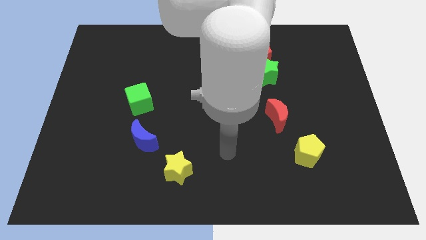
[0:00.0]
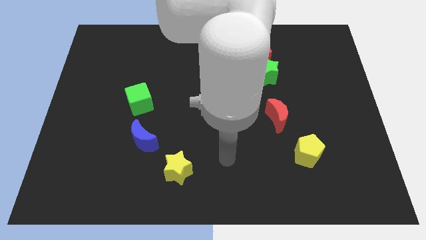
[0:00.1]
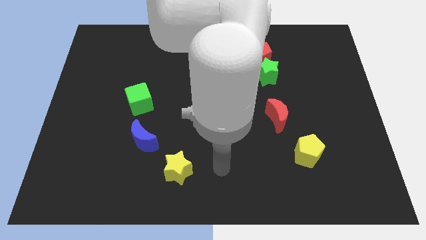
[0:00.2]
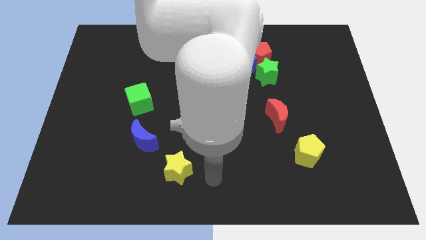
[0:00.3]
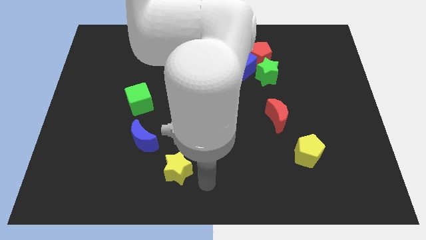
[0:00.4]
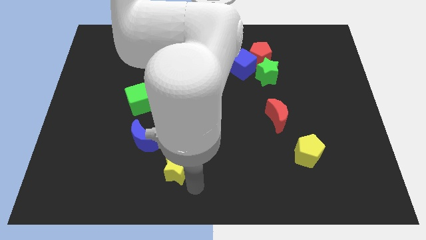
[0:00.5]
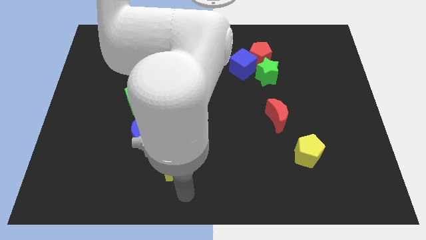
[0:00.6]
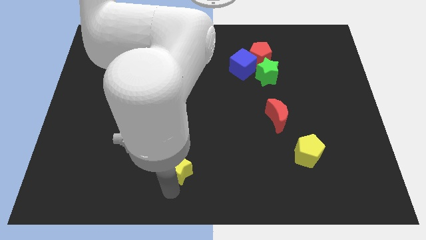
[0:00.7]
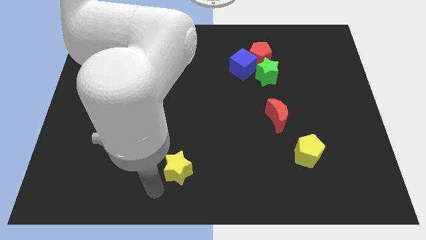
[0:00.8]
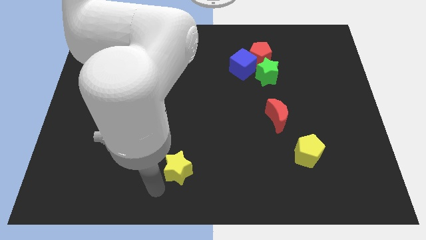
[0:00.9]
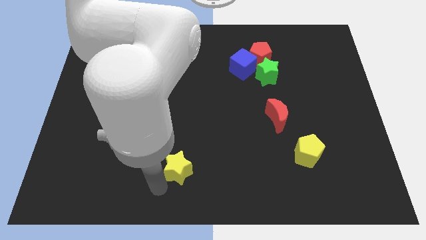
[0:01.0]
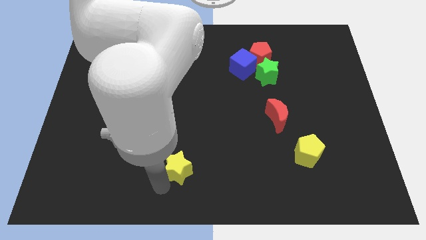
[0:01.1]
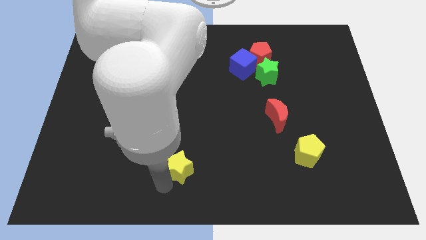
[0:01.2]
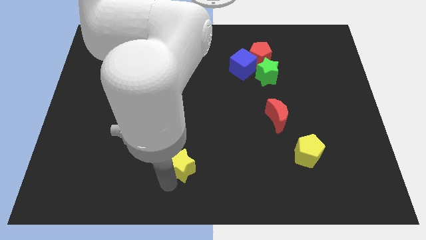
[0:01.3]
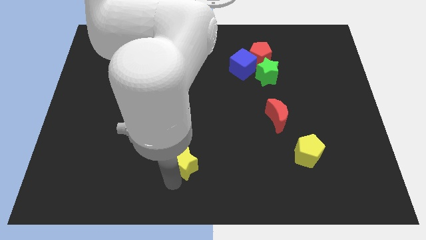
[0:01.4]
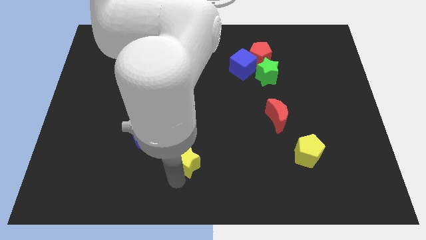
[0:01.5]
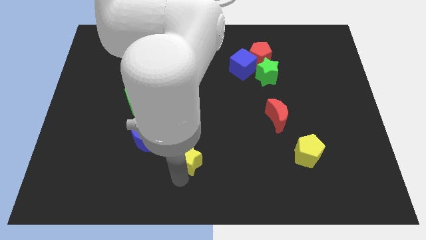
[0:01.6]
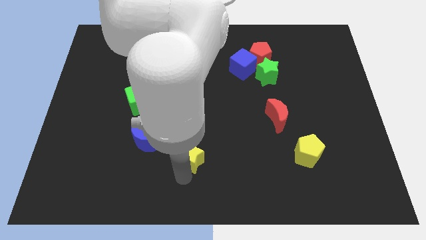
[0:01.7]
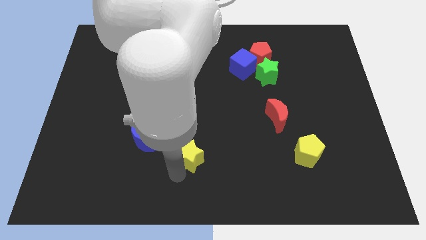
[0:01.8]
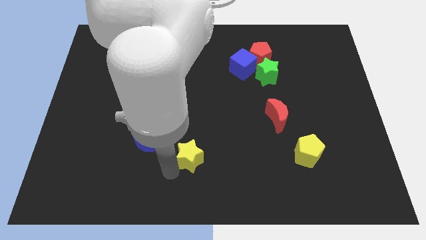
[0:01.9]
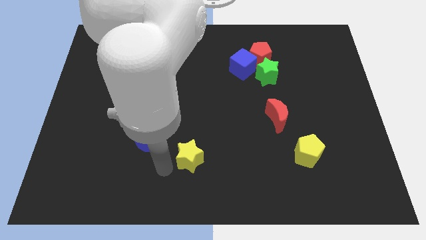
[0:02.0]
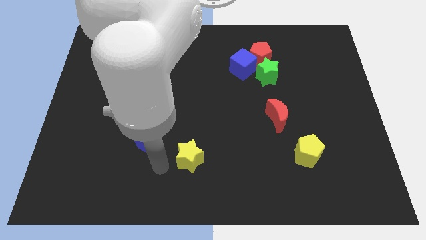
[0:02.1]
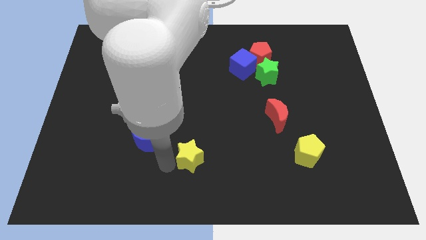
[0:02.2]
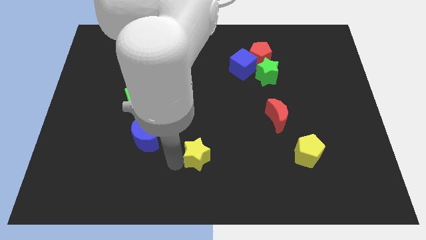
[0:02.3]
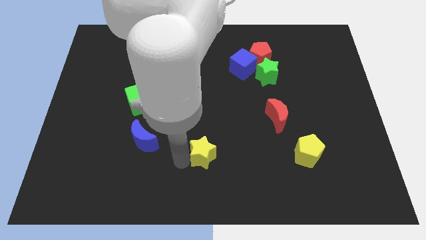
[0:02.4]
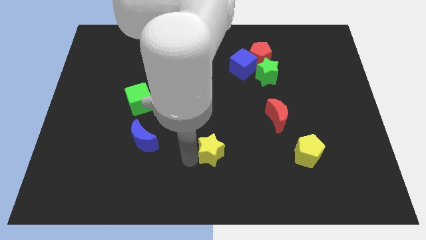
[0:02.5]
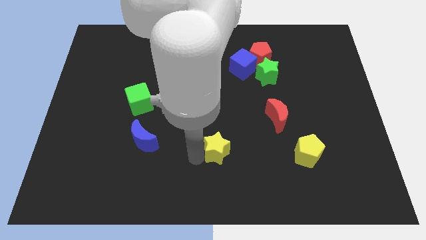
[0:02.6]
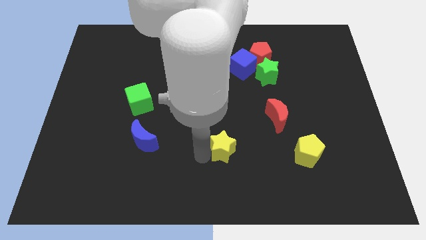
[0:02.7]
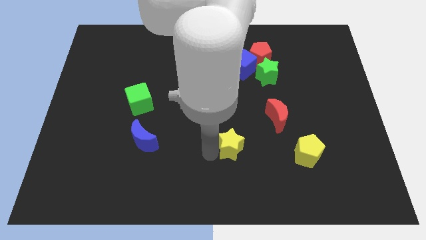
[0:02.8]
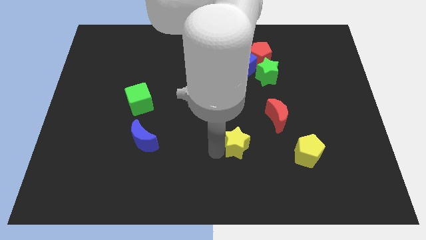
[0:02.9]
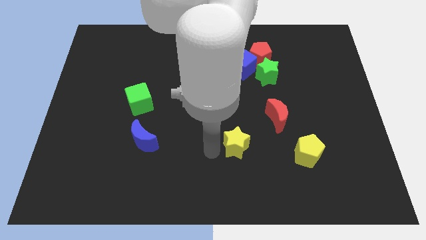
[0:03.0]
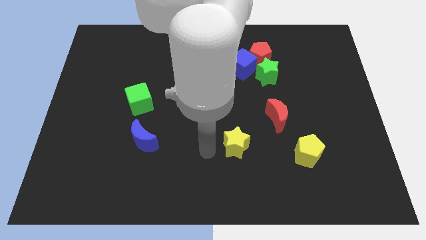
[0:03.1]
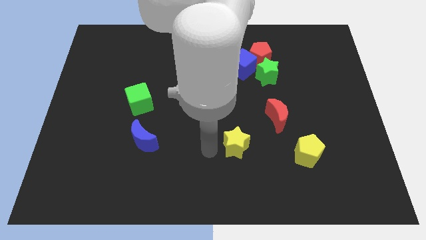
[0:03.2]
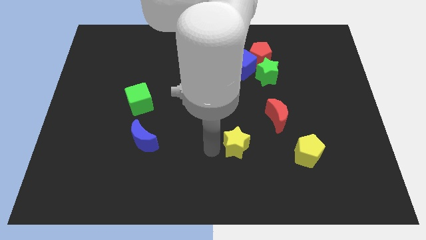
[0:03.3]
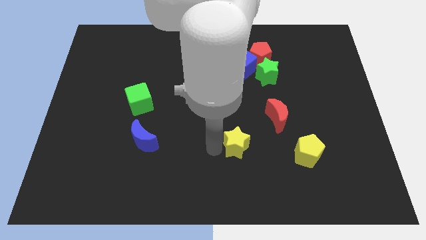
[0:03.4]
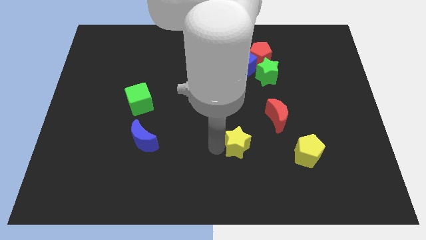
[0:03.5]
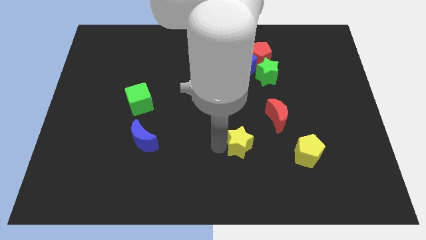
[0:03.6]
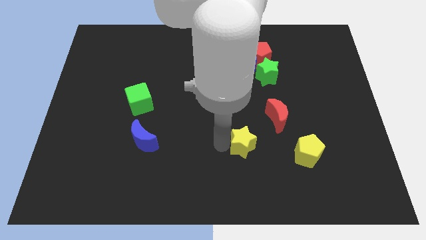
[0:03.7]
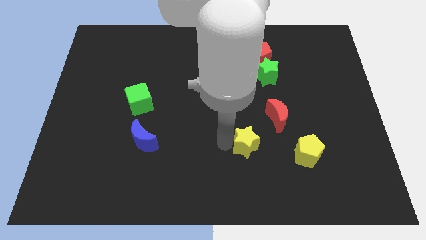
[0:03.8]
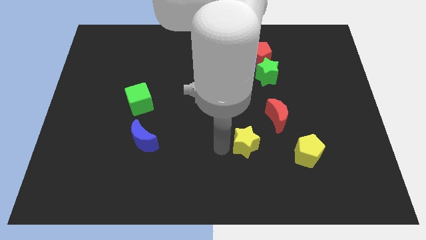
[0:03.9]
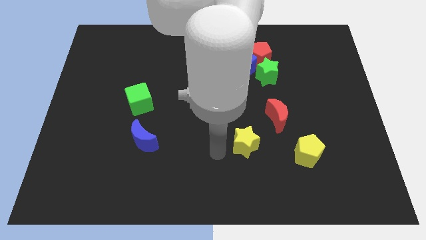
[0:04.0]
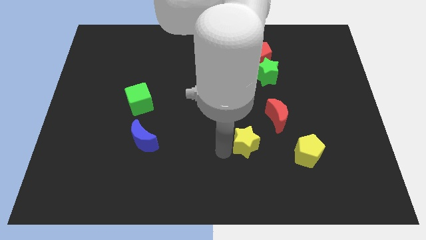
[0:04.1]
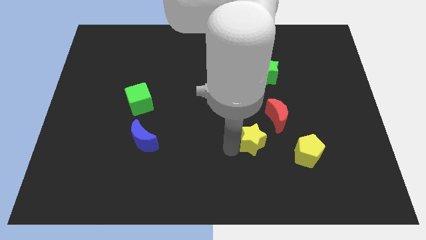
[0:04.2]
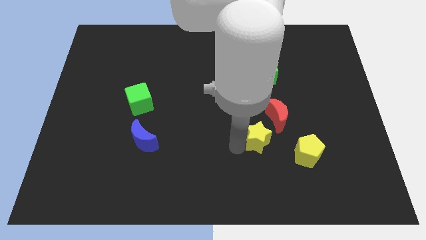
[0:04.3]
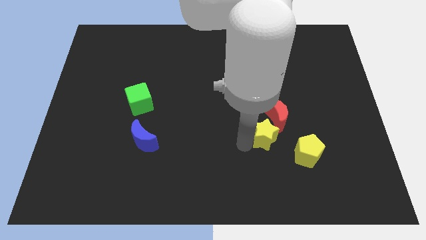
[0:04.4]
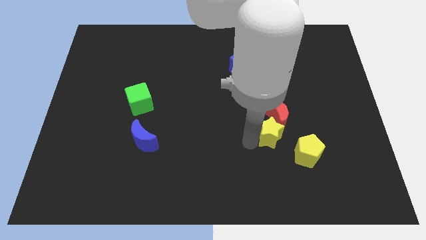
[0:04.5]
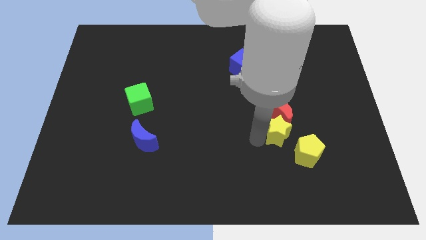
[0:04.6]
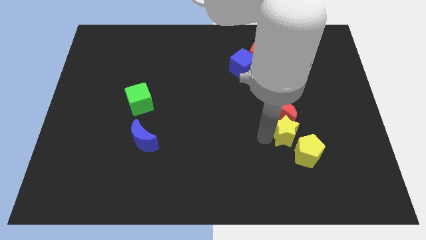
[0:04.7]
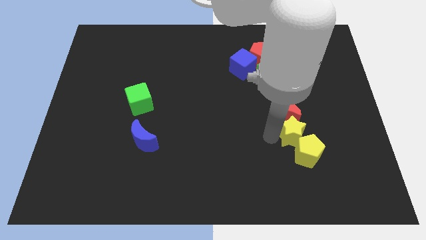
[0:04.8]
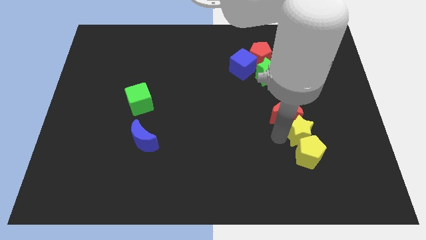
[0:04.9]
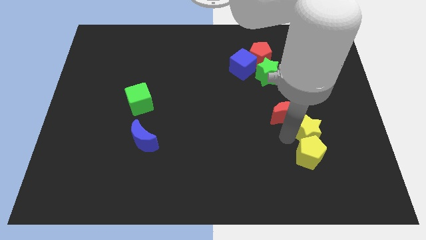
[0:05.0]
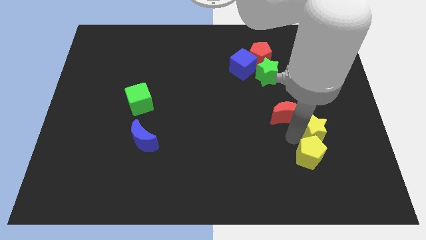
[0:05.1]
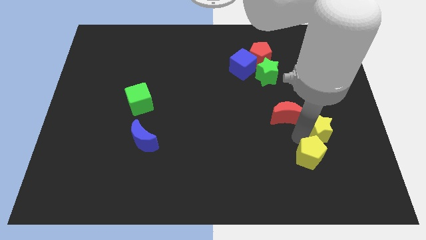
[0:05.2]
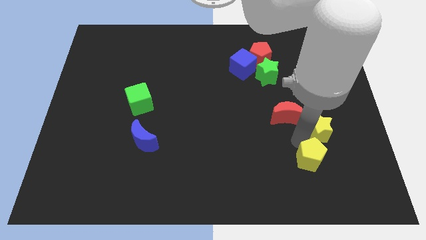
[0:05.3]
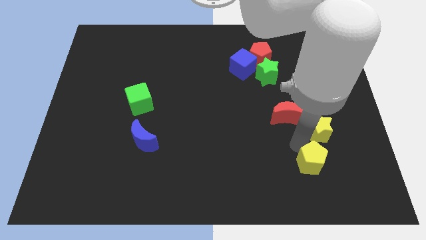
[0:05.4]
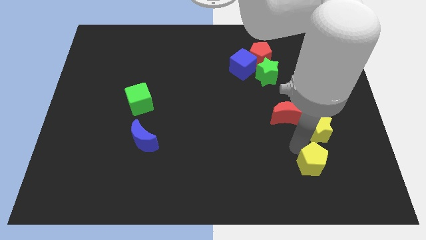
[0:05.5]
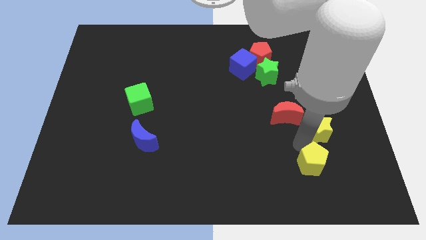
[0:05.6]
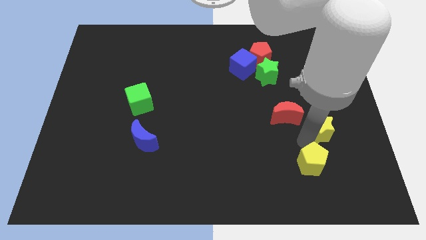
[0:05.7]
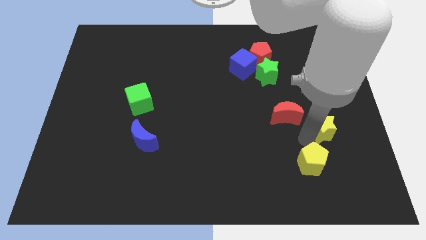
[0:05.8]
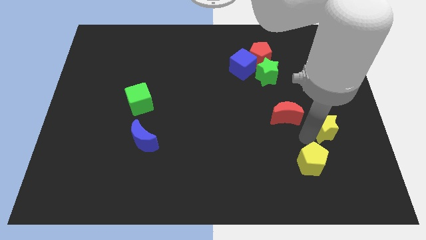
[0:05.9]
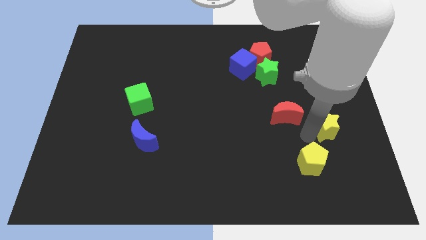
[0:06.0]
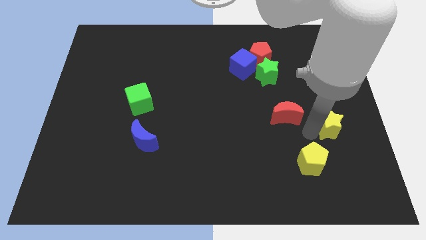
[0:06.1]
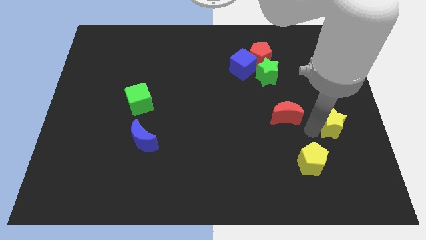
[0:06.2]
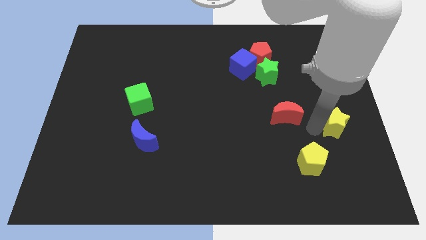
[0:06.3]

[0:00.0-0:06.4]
move the yellow star to the center right
